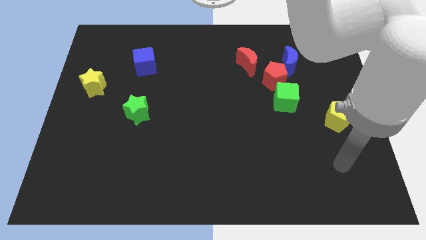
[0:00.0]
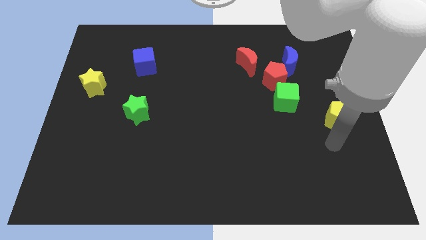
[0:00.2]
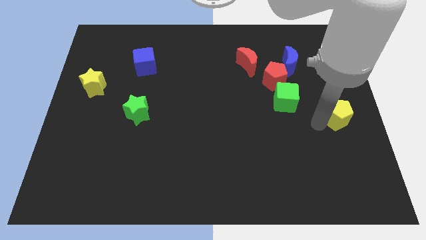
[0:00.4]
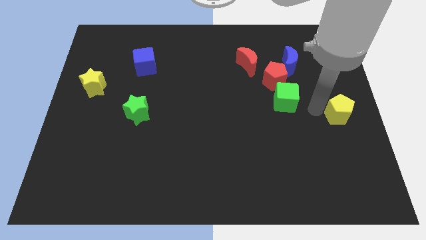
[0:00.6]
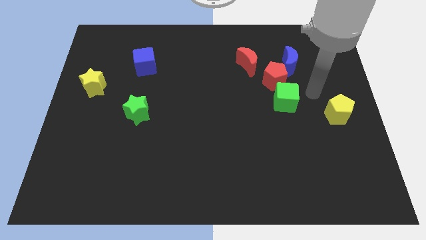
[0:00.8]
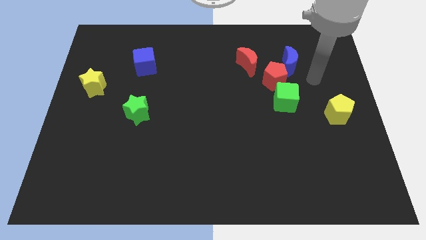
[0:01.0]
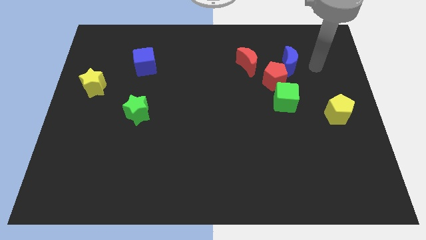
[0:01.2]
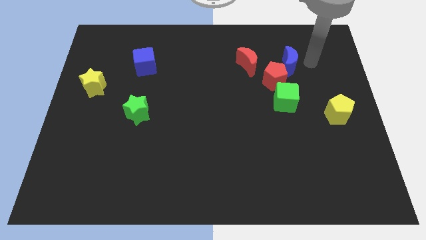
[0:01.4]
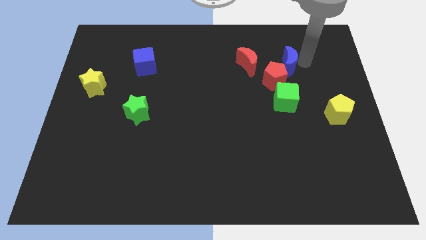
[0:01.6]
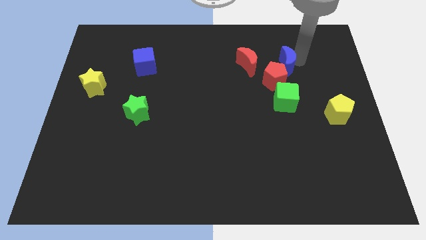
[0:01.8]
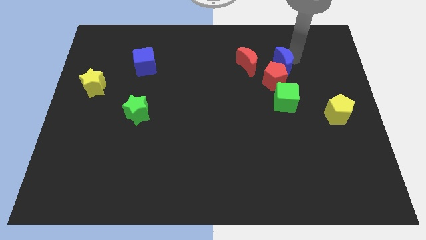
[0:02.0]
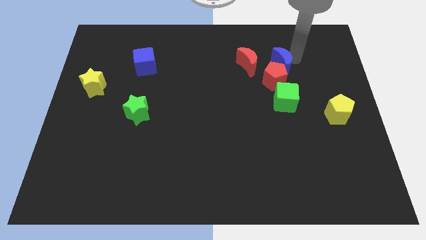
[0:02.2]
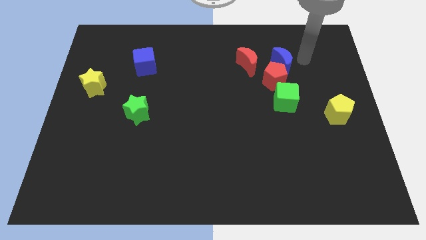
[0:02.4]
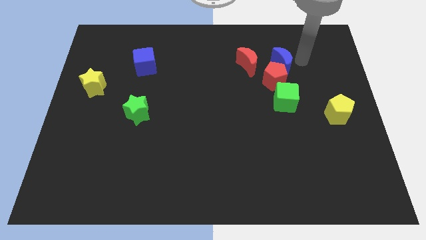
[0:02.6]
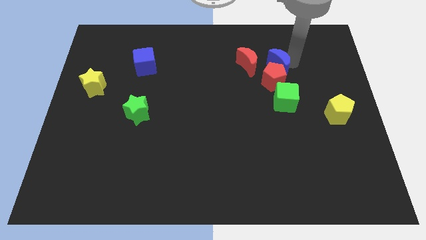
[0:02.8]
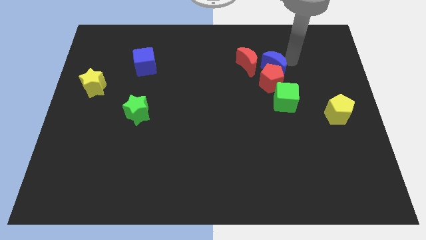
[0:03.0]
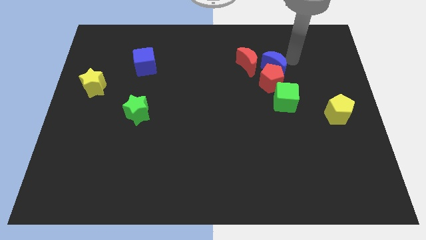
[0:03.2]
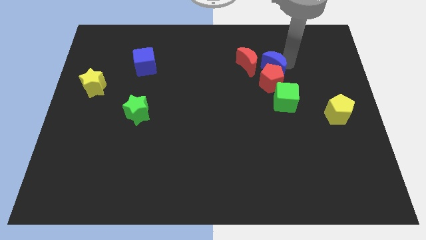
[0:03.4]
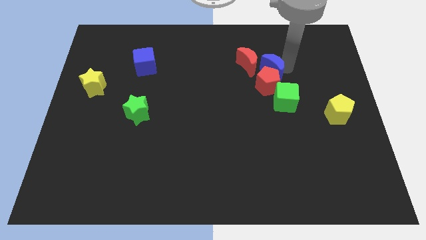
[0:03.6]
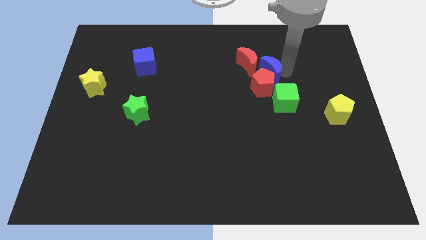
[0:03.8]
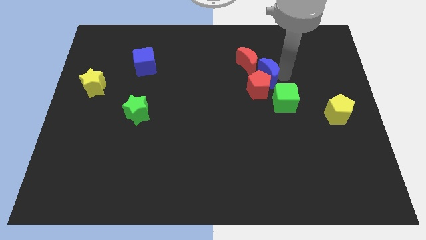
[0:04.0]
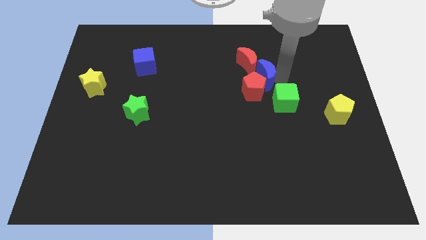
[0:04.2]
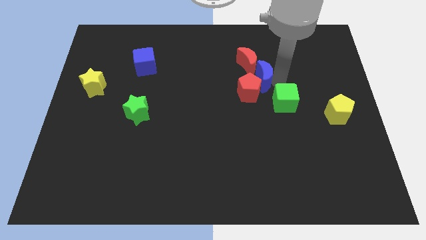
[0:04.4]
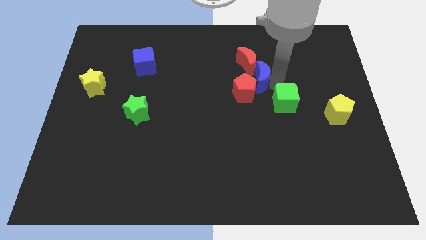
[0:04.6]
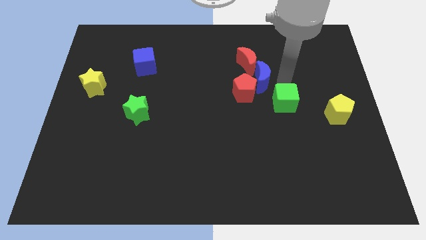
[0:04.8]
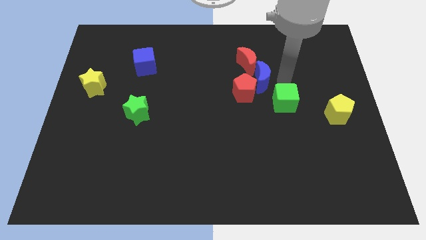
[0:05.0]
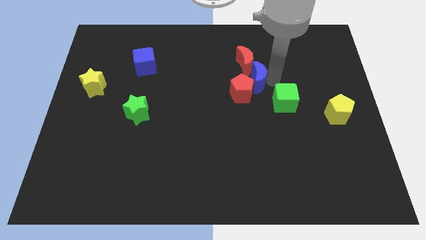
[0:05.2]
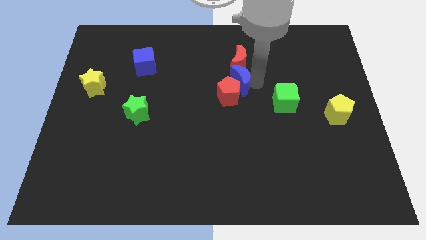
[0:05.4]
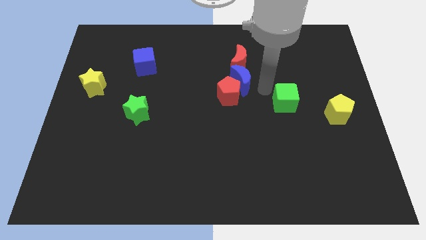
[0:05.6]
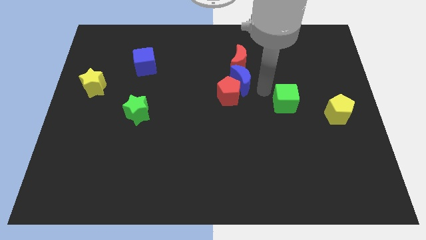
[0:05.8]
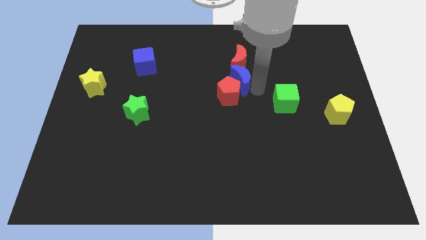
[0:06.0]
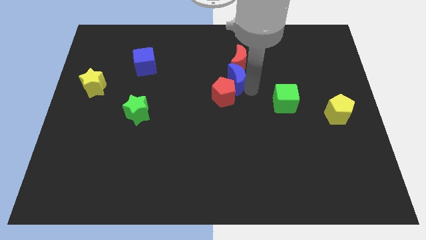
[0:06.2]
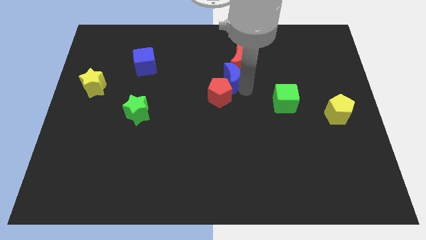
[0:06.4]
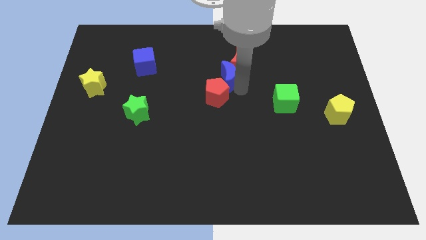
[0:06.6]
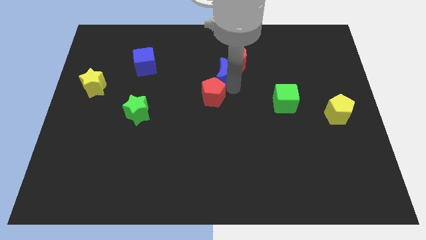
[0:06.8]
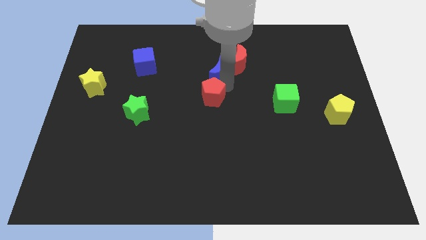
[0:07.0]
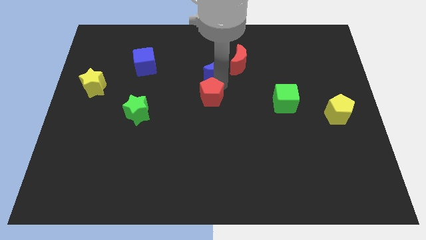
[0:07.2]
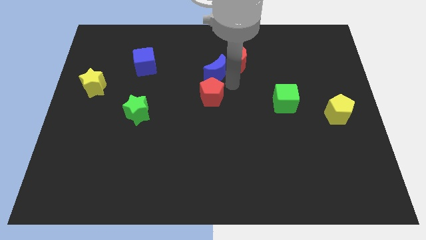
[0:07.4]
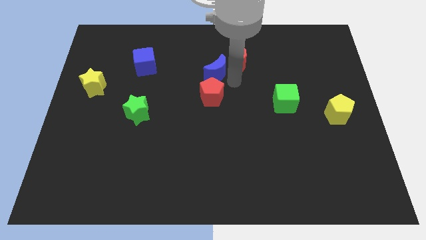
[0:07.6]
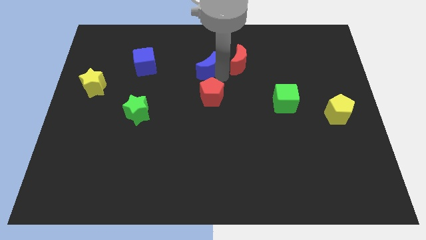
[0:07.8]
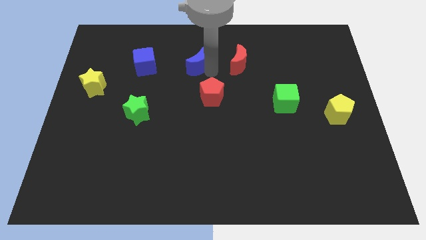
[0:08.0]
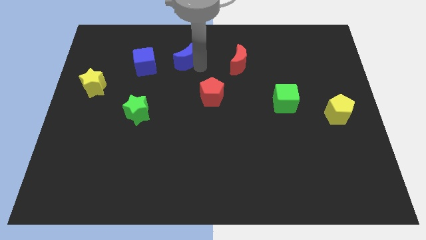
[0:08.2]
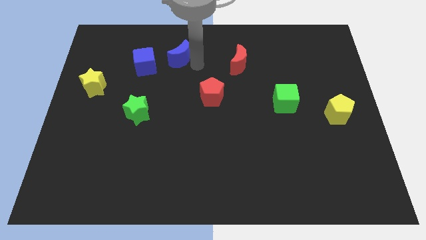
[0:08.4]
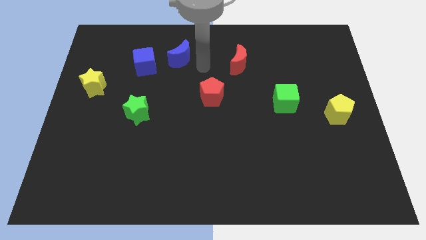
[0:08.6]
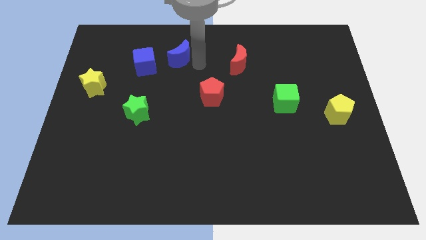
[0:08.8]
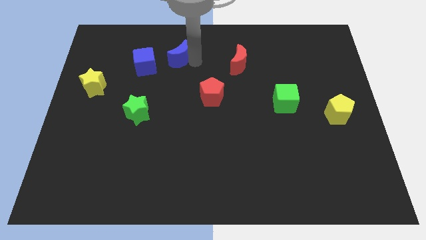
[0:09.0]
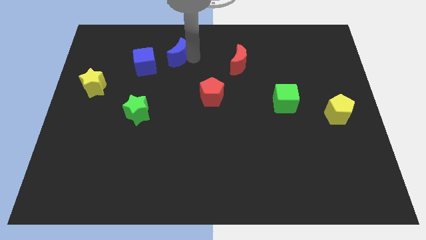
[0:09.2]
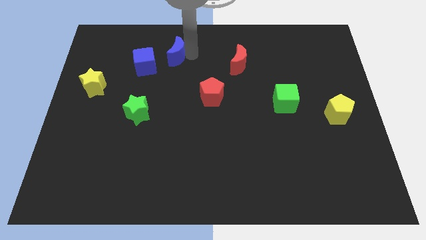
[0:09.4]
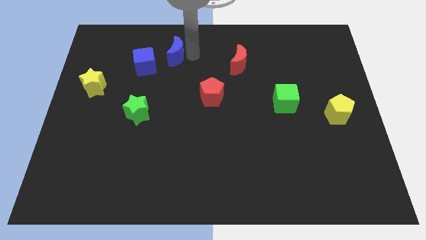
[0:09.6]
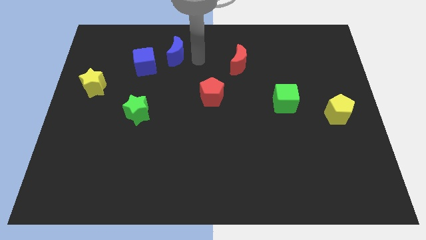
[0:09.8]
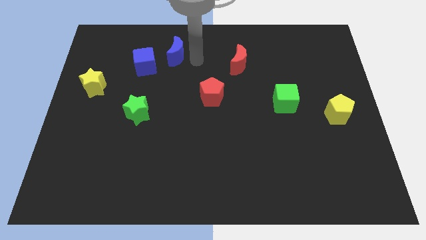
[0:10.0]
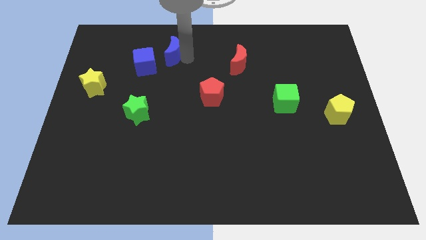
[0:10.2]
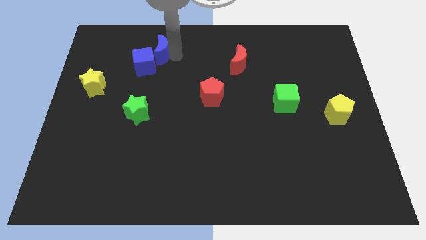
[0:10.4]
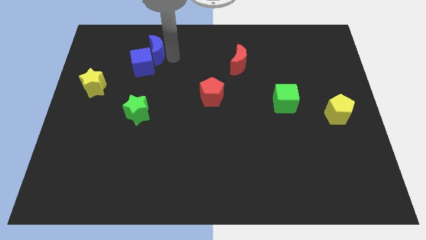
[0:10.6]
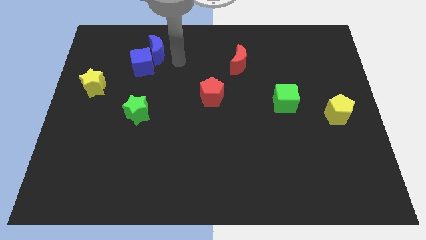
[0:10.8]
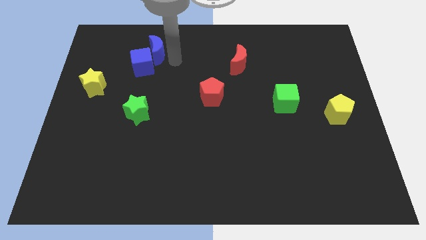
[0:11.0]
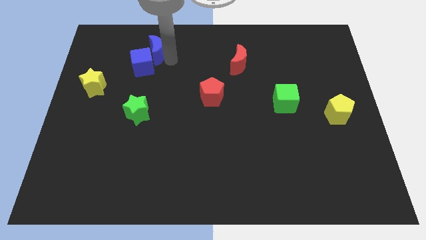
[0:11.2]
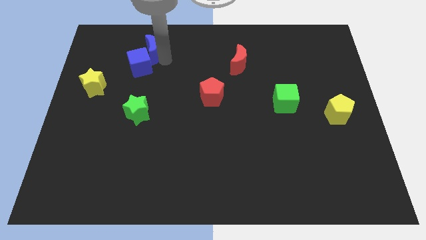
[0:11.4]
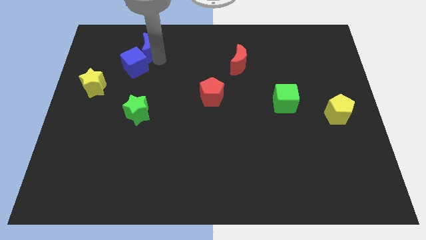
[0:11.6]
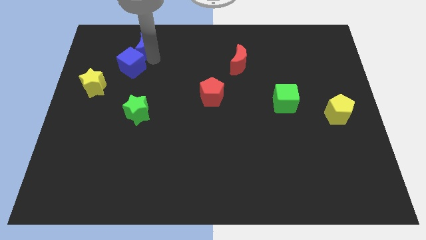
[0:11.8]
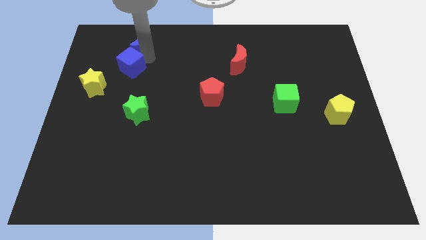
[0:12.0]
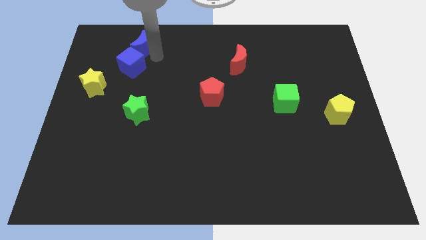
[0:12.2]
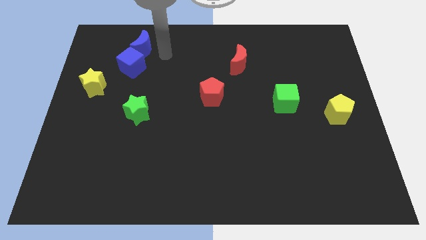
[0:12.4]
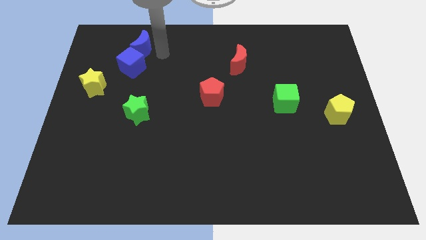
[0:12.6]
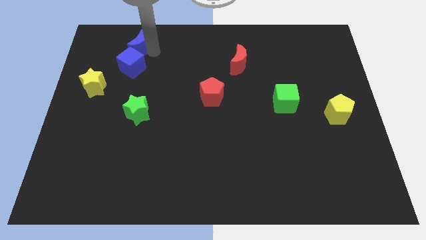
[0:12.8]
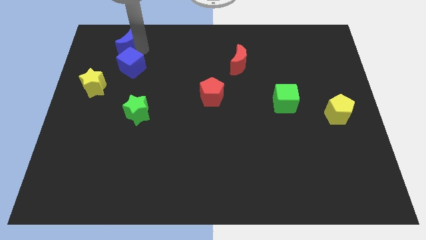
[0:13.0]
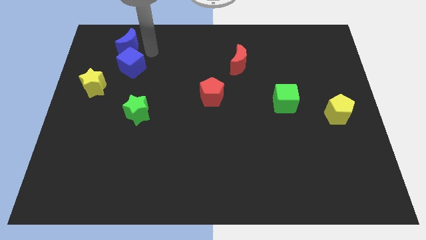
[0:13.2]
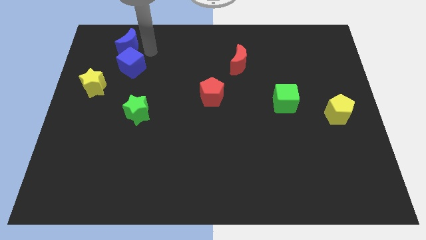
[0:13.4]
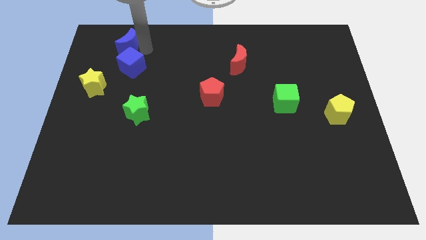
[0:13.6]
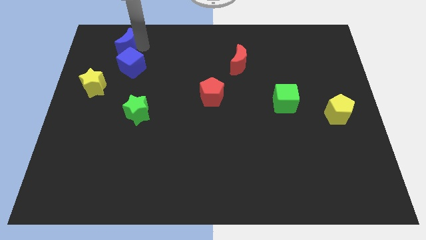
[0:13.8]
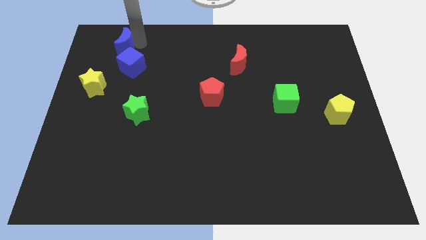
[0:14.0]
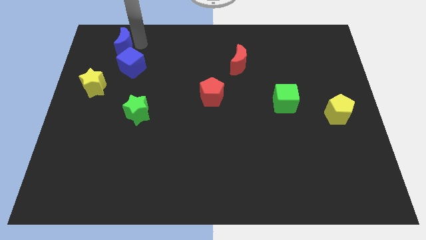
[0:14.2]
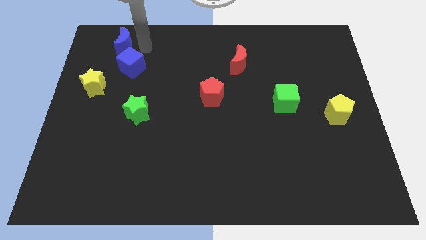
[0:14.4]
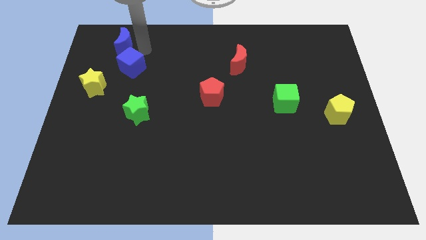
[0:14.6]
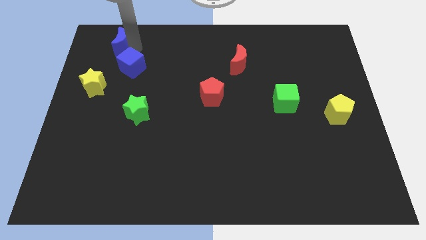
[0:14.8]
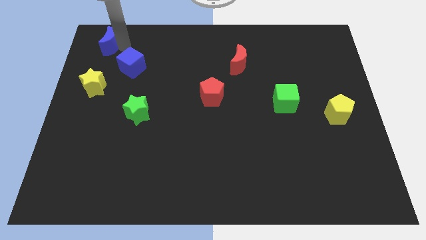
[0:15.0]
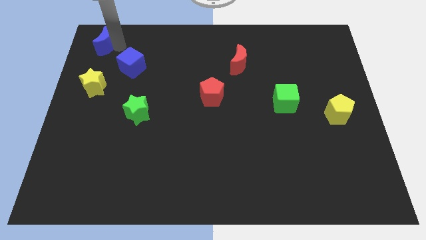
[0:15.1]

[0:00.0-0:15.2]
put the blue moon to the top left
